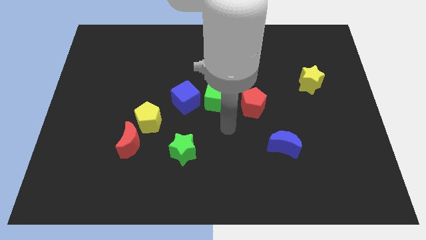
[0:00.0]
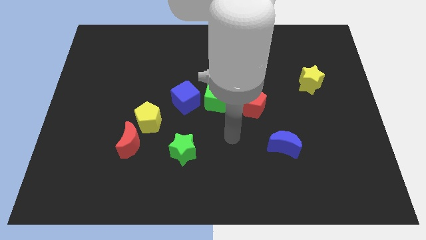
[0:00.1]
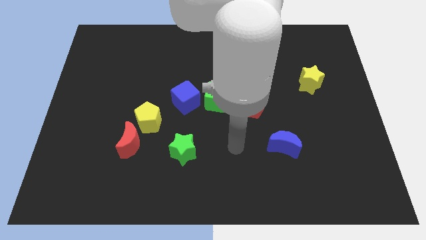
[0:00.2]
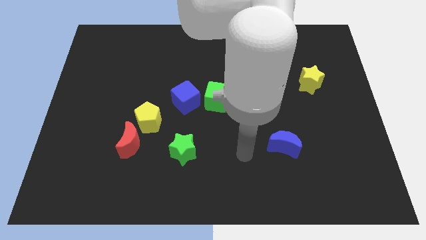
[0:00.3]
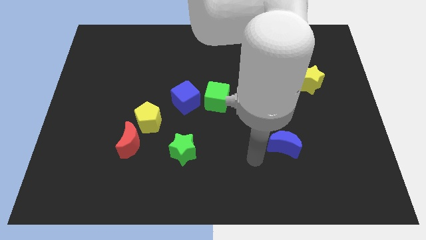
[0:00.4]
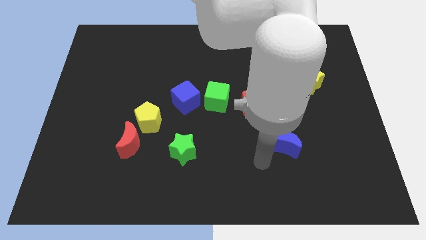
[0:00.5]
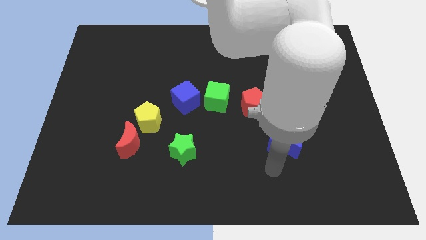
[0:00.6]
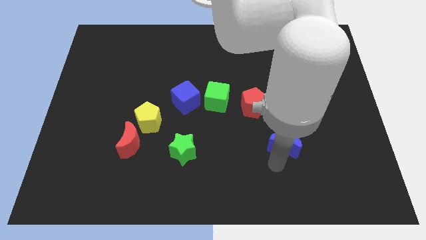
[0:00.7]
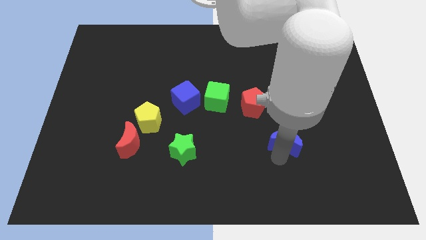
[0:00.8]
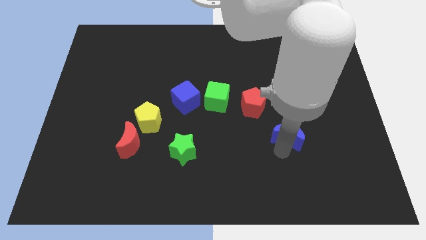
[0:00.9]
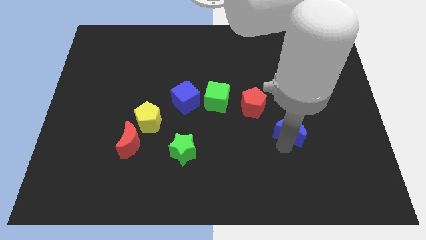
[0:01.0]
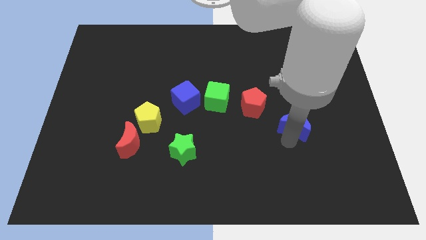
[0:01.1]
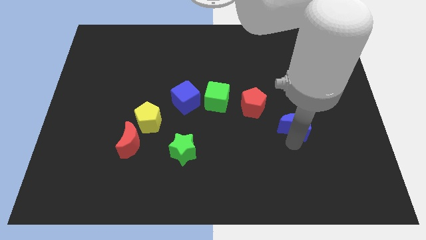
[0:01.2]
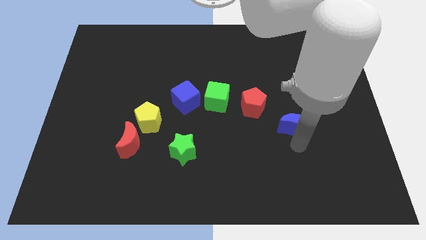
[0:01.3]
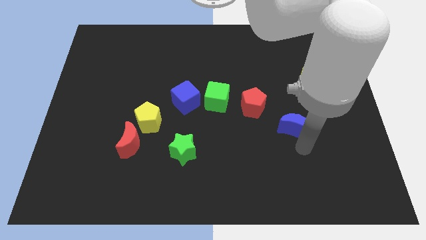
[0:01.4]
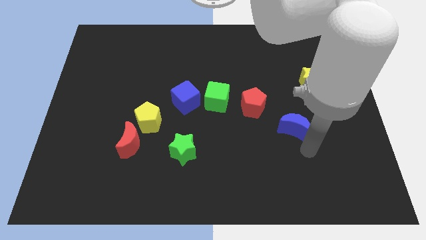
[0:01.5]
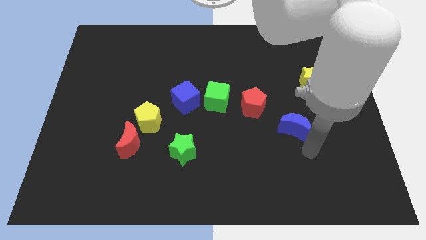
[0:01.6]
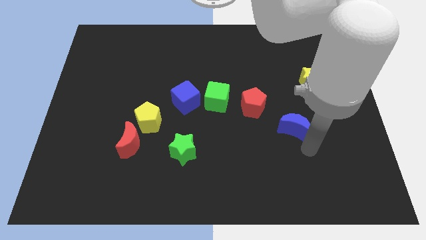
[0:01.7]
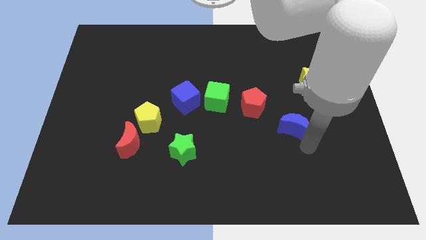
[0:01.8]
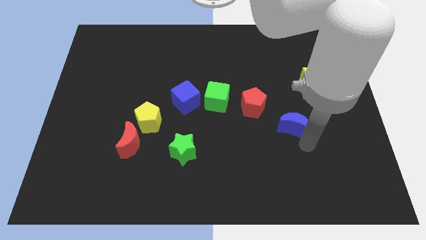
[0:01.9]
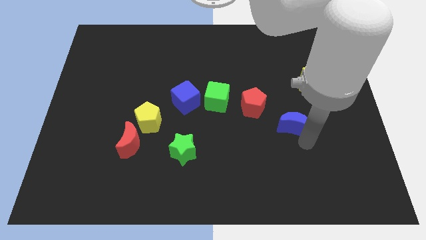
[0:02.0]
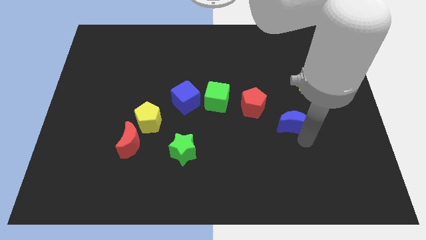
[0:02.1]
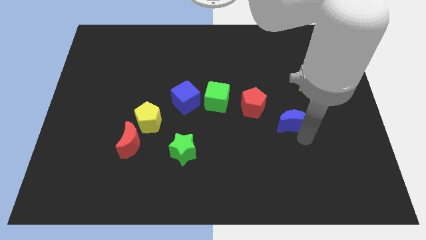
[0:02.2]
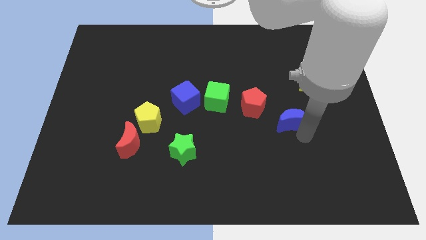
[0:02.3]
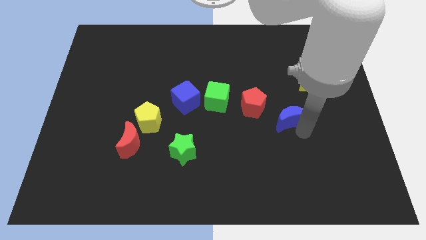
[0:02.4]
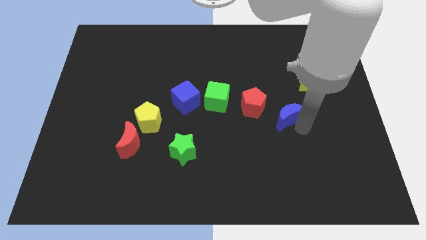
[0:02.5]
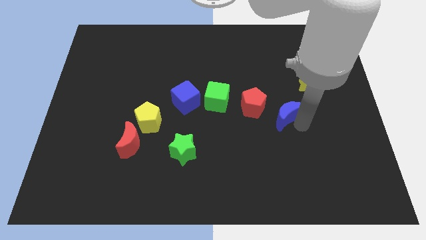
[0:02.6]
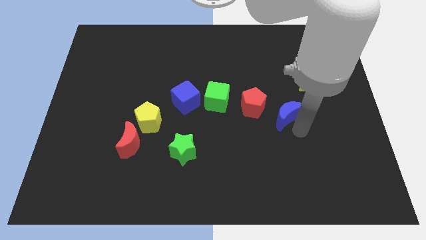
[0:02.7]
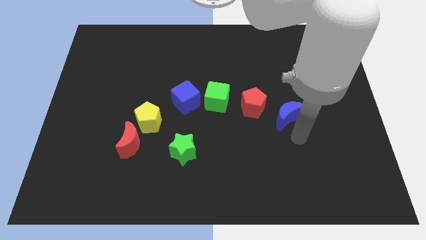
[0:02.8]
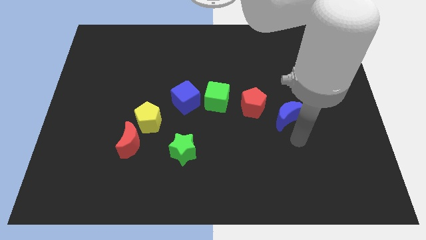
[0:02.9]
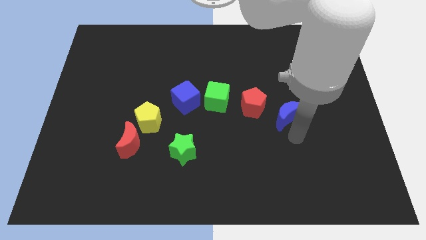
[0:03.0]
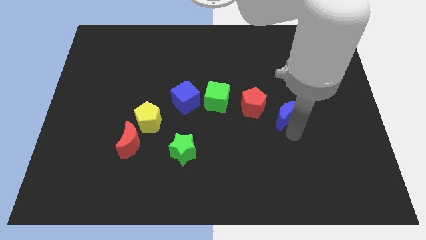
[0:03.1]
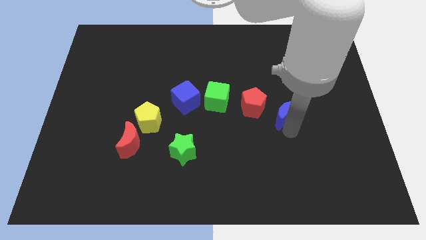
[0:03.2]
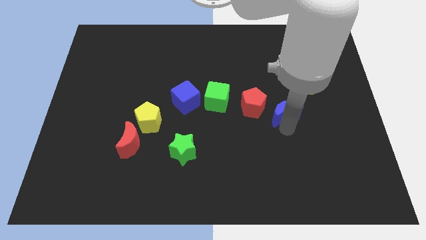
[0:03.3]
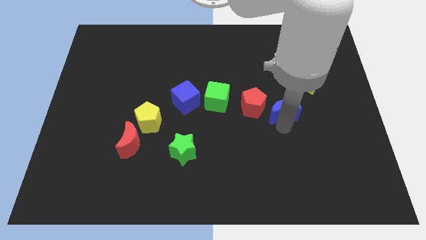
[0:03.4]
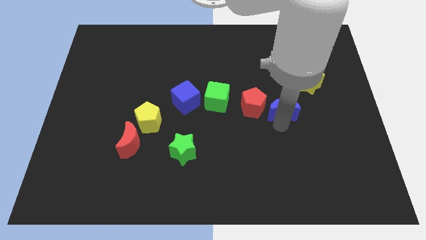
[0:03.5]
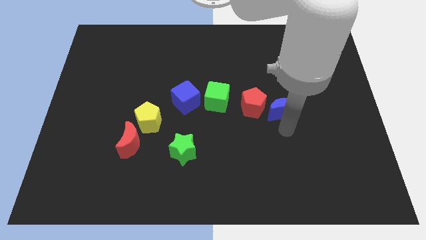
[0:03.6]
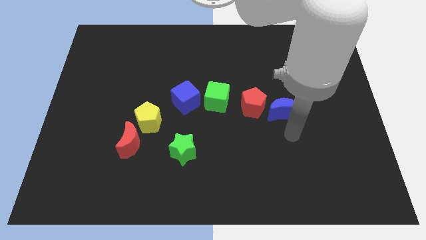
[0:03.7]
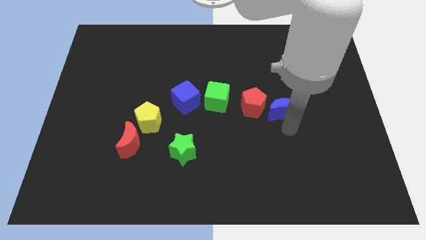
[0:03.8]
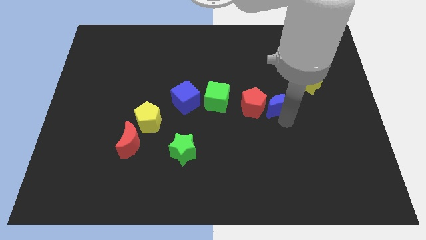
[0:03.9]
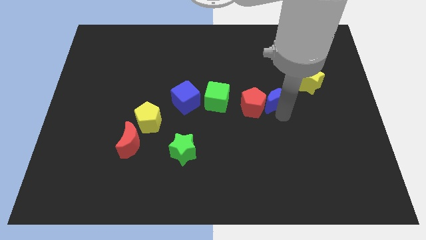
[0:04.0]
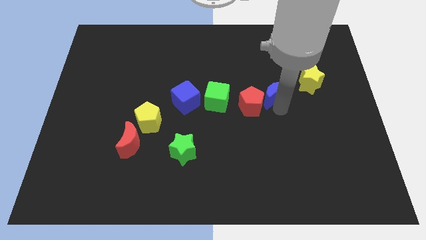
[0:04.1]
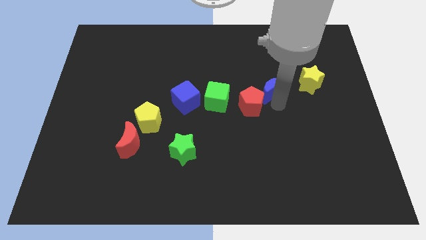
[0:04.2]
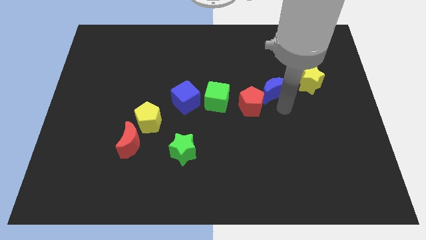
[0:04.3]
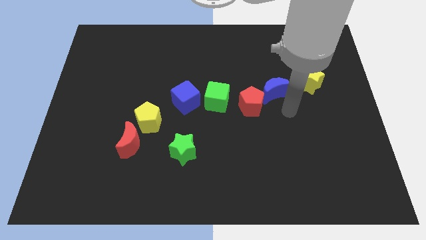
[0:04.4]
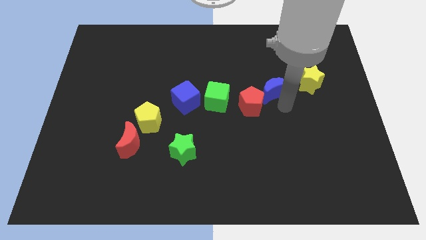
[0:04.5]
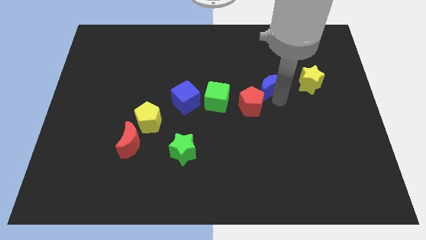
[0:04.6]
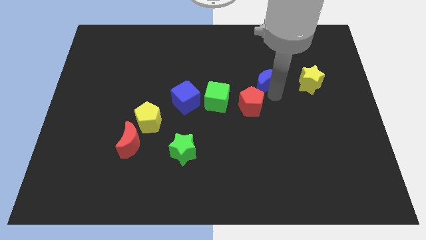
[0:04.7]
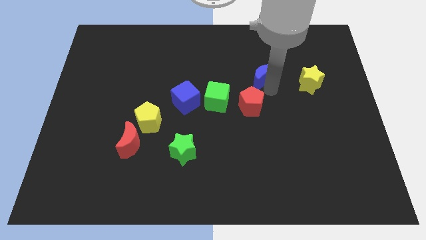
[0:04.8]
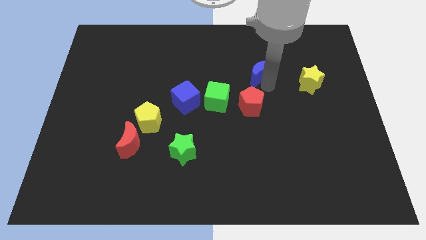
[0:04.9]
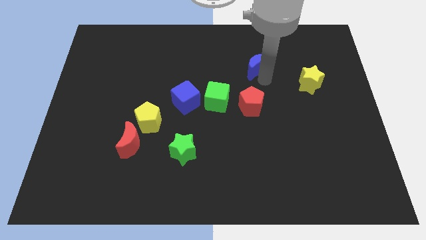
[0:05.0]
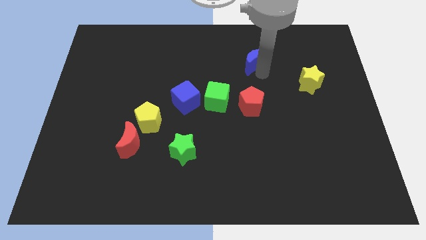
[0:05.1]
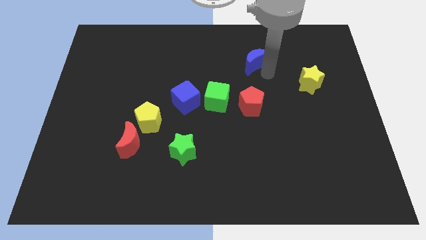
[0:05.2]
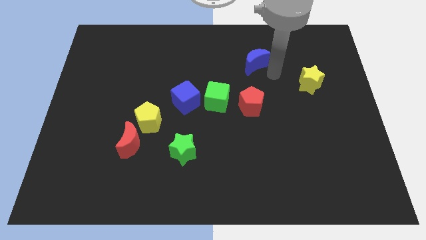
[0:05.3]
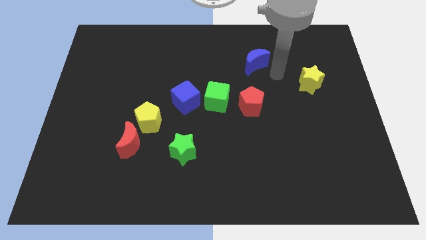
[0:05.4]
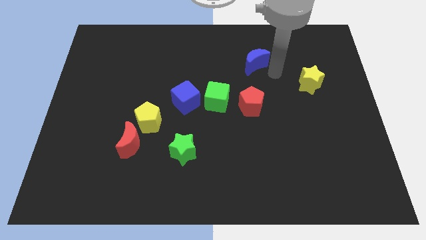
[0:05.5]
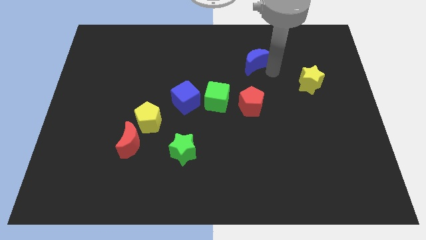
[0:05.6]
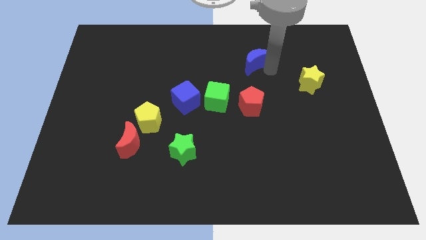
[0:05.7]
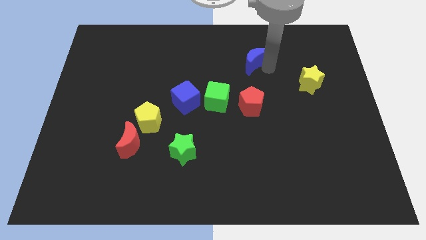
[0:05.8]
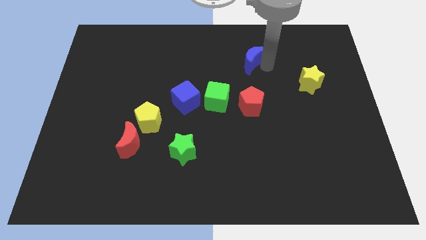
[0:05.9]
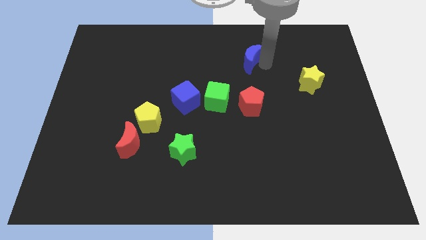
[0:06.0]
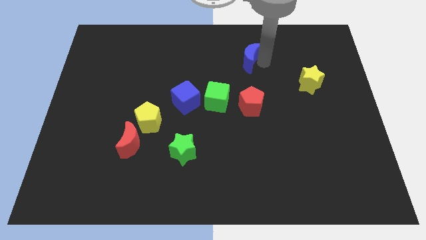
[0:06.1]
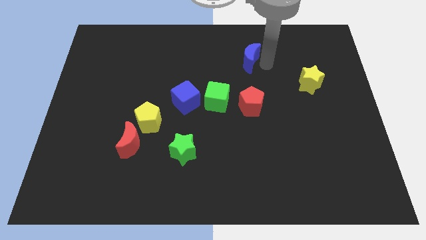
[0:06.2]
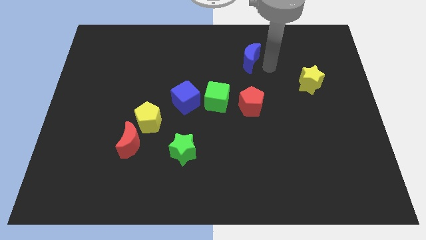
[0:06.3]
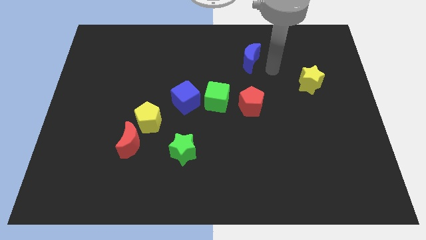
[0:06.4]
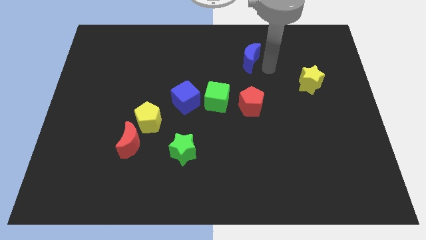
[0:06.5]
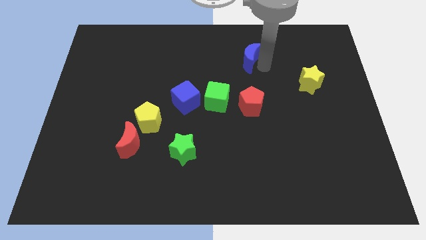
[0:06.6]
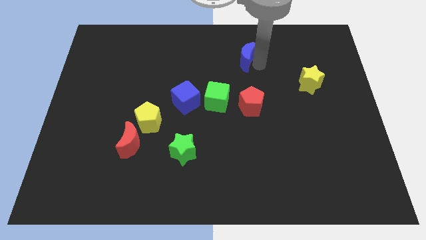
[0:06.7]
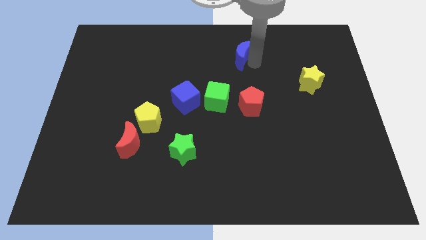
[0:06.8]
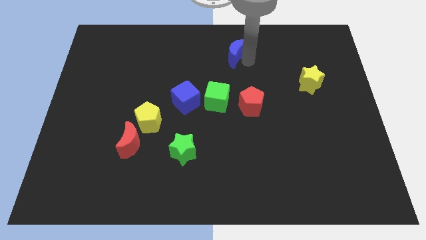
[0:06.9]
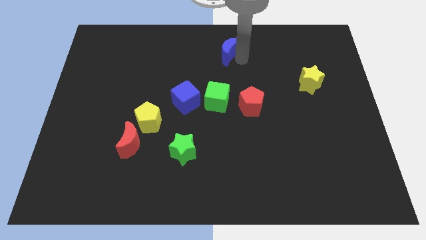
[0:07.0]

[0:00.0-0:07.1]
slide the blue moon to the top side
